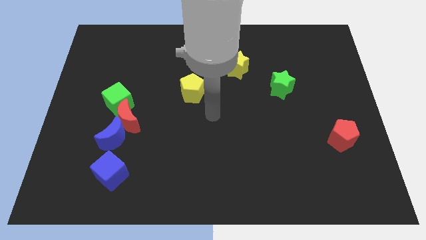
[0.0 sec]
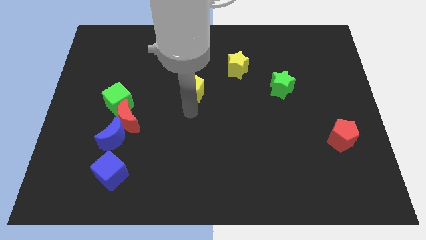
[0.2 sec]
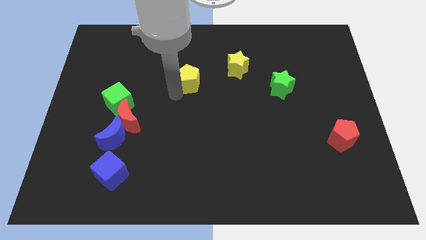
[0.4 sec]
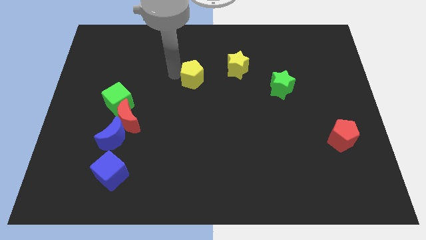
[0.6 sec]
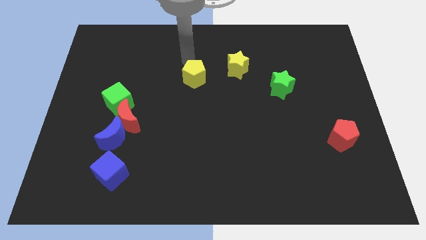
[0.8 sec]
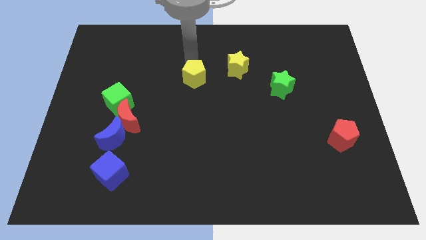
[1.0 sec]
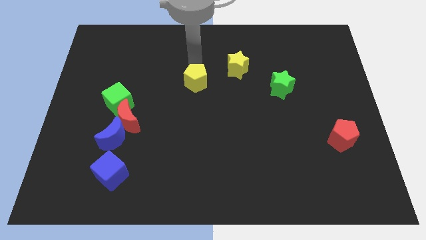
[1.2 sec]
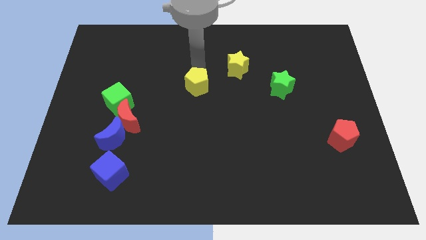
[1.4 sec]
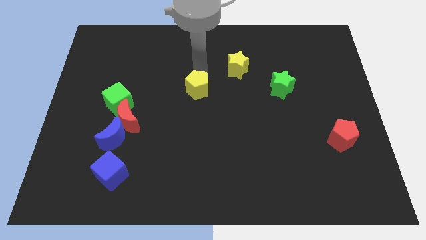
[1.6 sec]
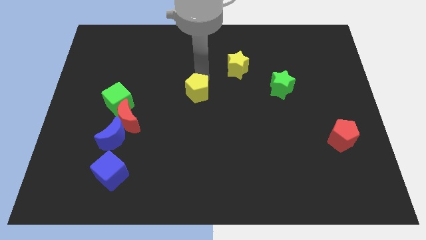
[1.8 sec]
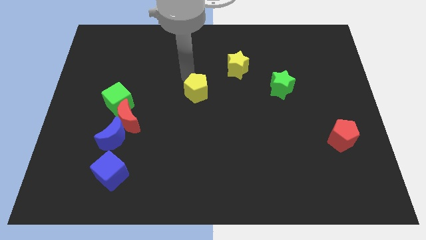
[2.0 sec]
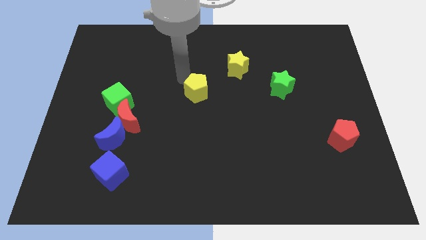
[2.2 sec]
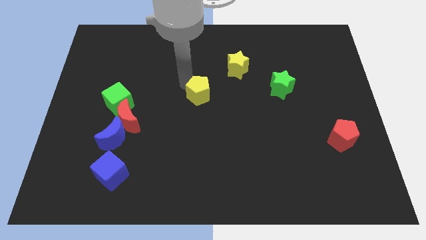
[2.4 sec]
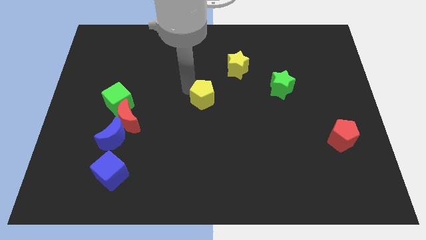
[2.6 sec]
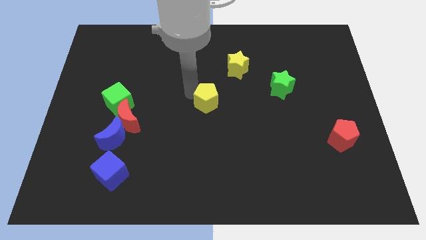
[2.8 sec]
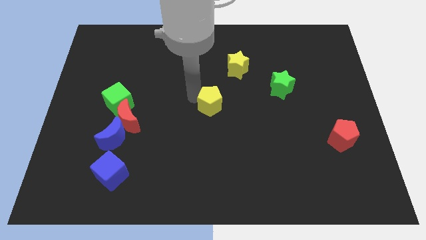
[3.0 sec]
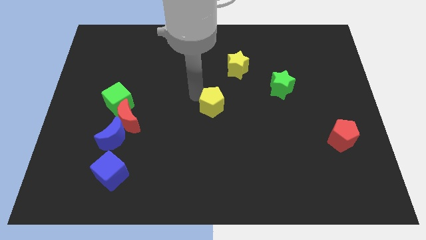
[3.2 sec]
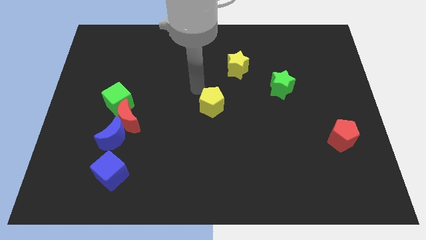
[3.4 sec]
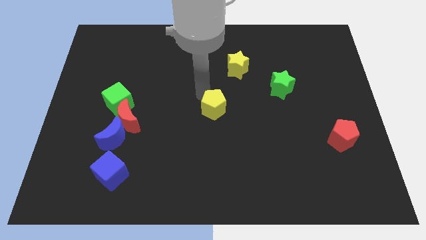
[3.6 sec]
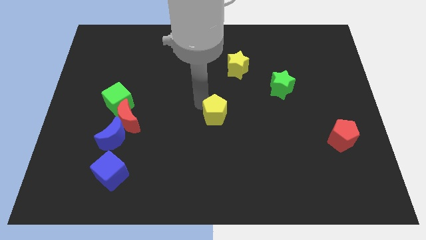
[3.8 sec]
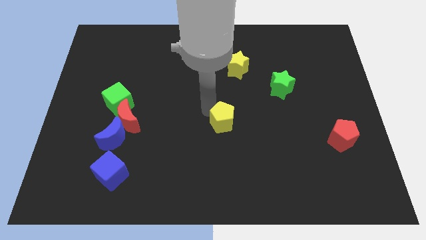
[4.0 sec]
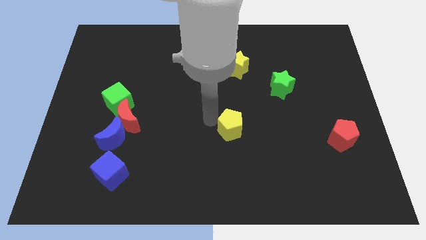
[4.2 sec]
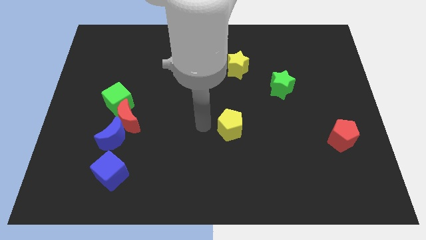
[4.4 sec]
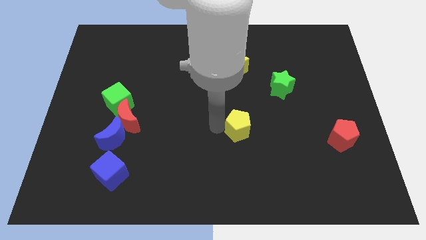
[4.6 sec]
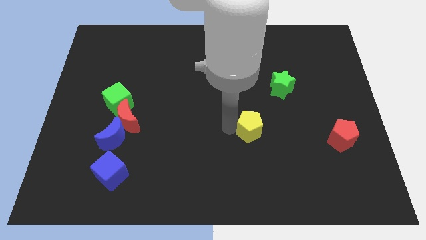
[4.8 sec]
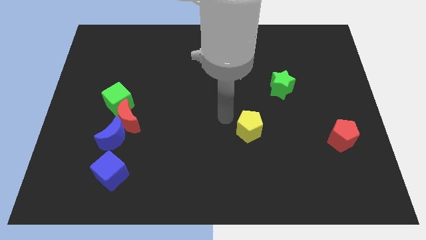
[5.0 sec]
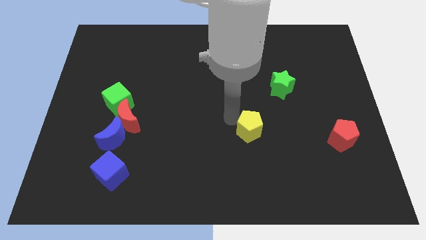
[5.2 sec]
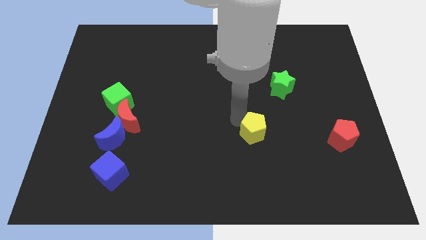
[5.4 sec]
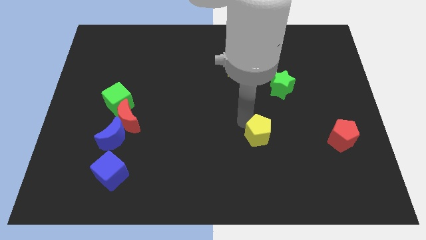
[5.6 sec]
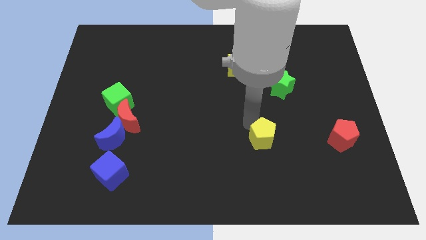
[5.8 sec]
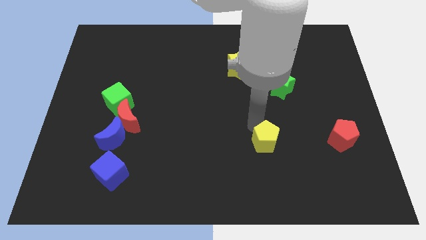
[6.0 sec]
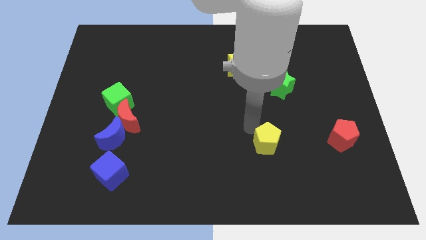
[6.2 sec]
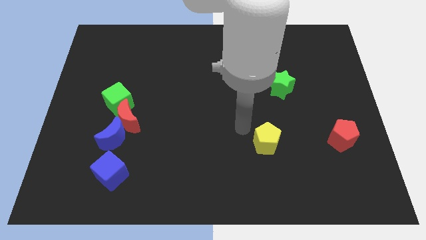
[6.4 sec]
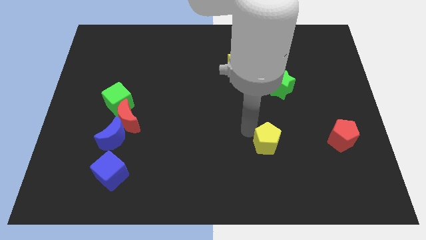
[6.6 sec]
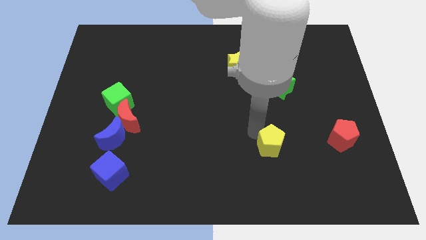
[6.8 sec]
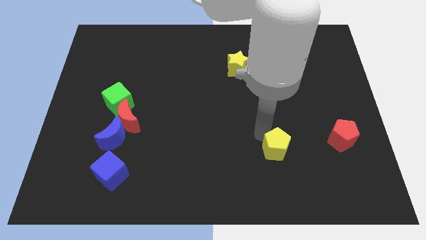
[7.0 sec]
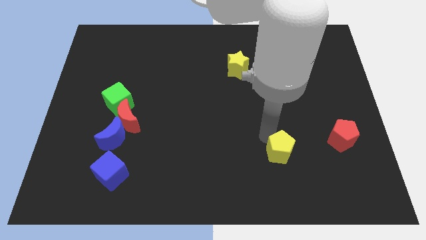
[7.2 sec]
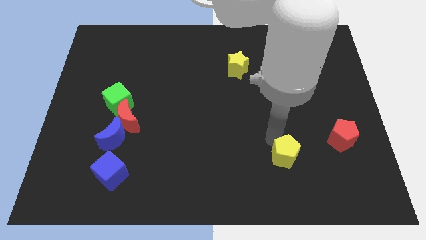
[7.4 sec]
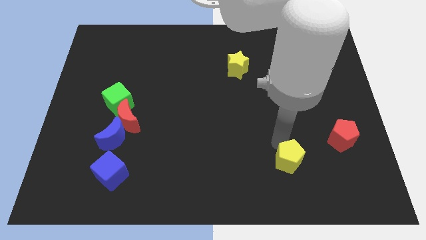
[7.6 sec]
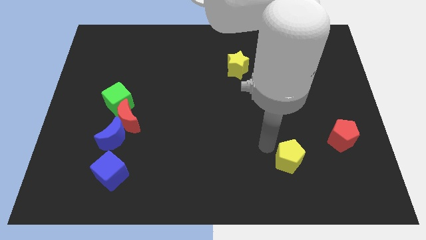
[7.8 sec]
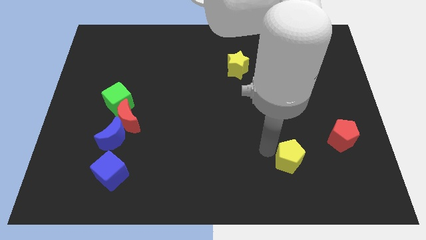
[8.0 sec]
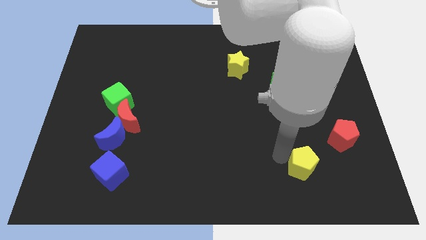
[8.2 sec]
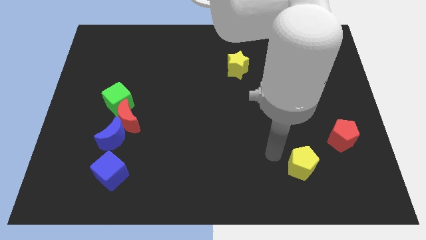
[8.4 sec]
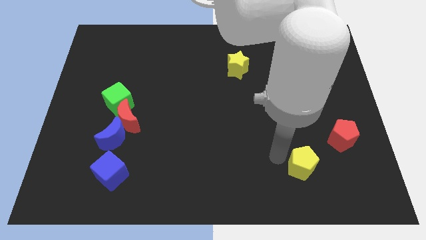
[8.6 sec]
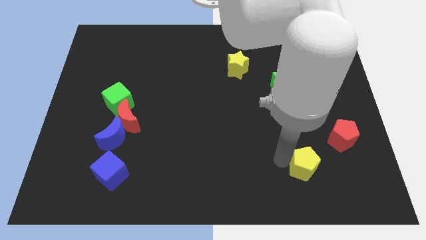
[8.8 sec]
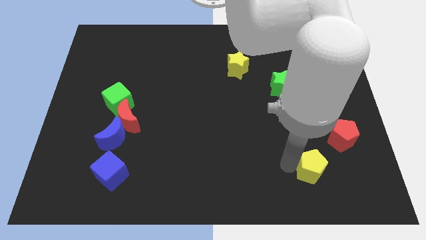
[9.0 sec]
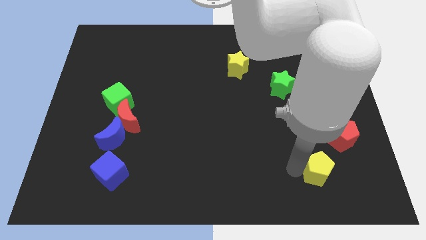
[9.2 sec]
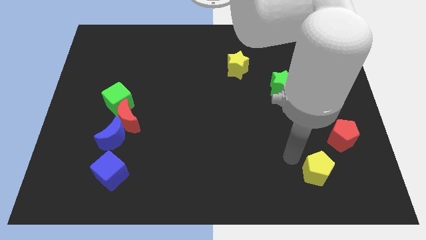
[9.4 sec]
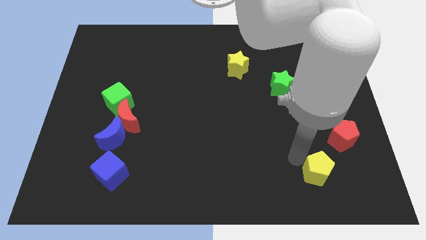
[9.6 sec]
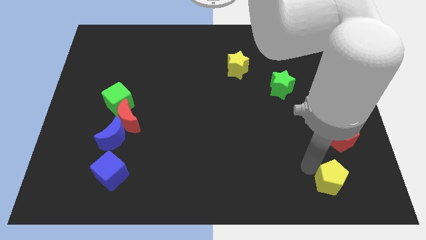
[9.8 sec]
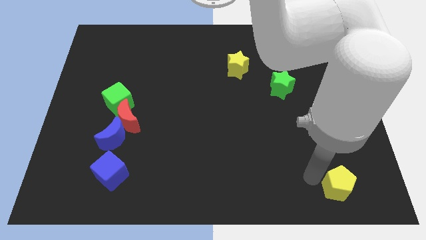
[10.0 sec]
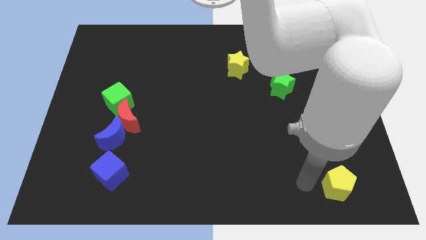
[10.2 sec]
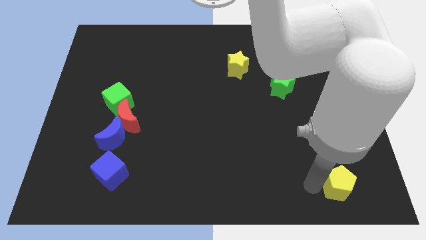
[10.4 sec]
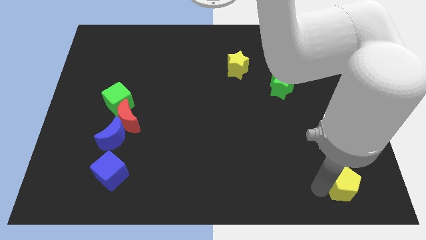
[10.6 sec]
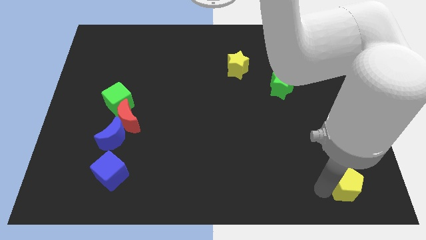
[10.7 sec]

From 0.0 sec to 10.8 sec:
slide the yellow pentagon to the bottom right
